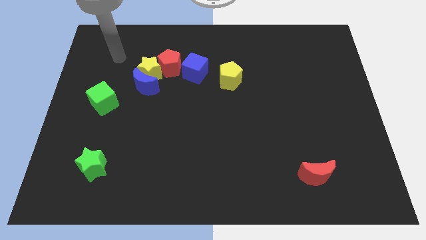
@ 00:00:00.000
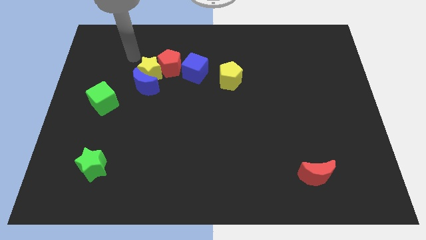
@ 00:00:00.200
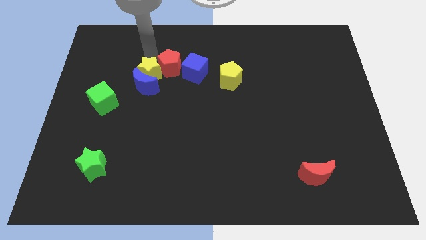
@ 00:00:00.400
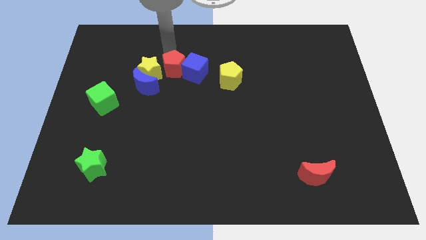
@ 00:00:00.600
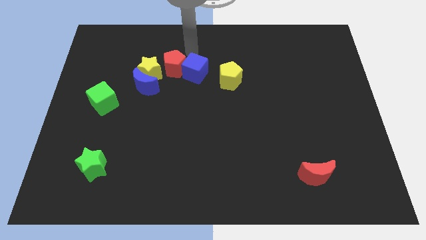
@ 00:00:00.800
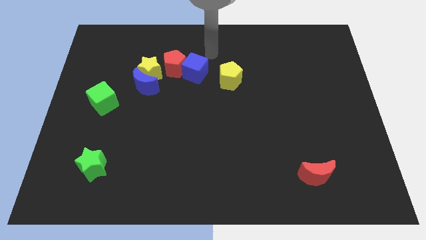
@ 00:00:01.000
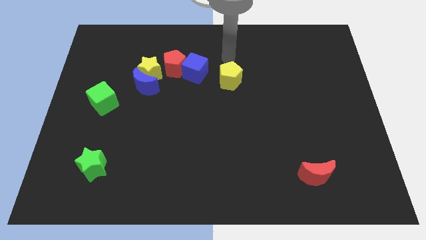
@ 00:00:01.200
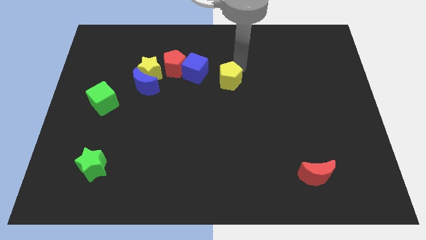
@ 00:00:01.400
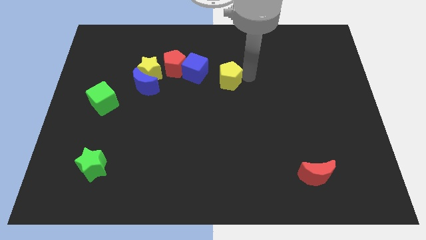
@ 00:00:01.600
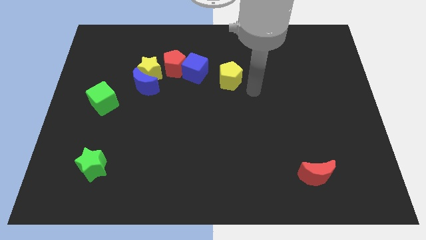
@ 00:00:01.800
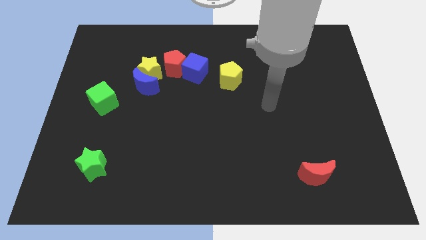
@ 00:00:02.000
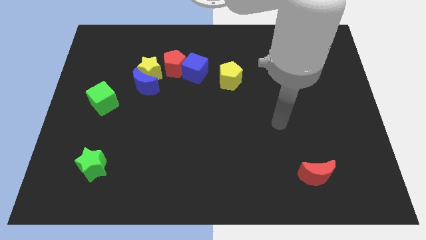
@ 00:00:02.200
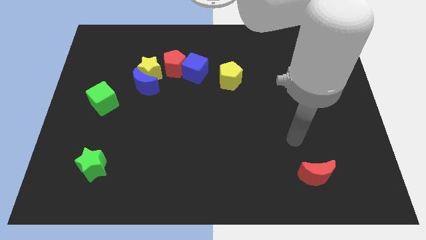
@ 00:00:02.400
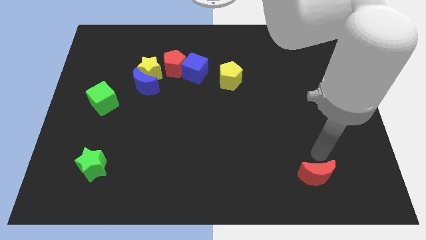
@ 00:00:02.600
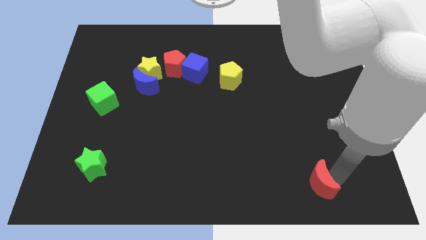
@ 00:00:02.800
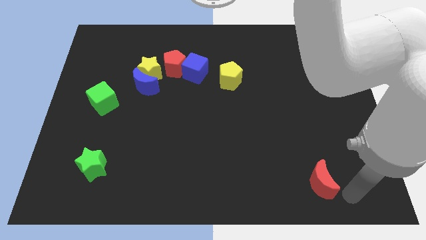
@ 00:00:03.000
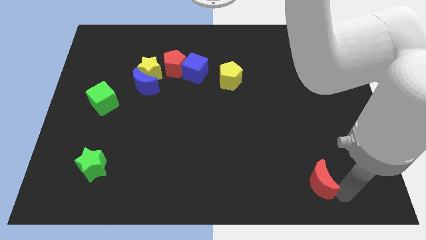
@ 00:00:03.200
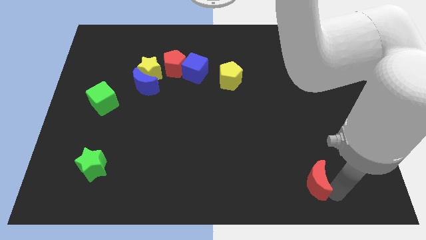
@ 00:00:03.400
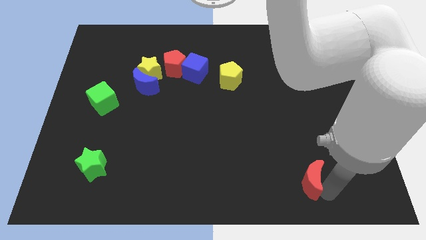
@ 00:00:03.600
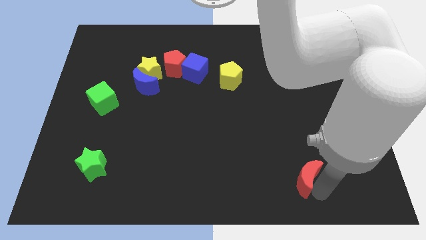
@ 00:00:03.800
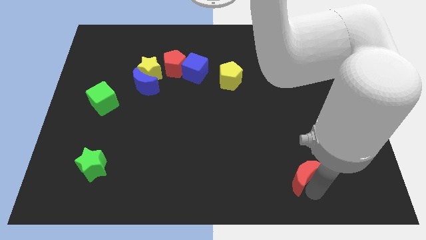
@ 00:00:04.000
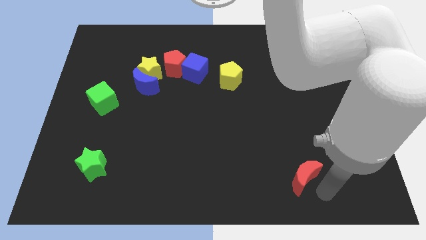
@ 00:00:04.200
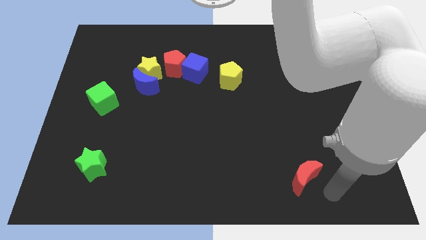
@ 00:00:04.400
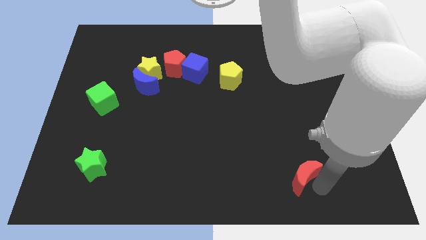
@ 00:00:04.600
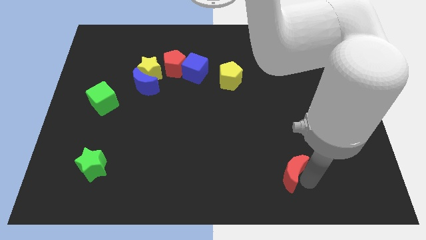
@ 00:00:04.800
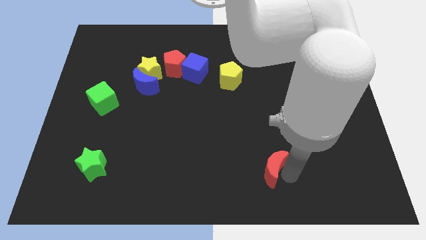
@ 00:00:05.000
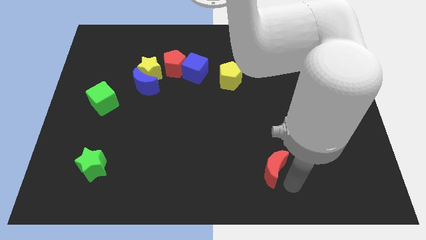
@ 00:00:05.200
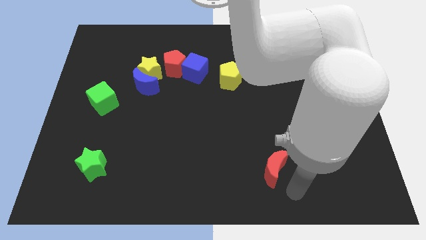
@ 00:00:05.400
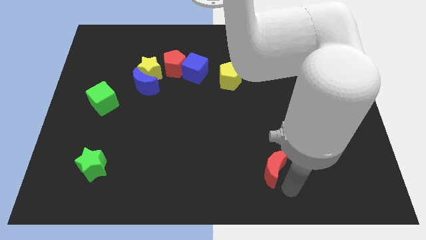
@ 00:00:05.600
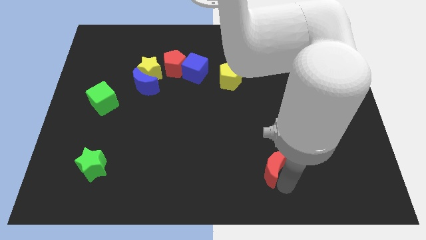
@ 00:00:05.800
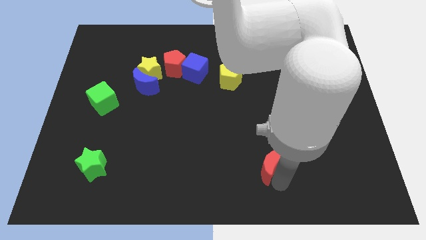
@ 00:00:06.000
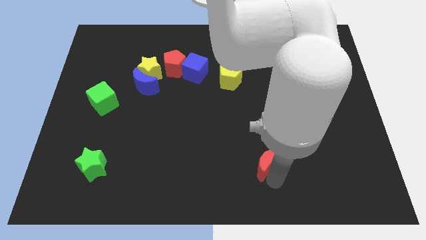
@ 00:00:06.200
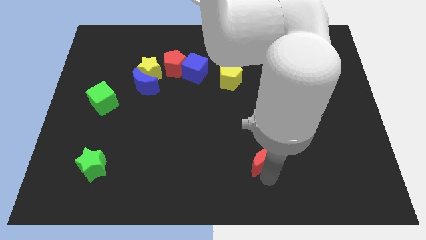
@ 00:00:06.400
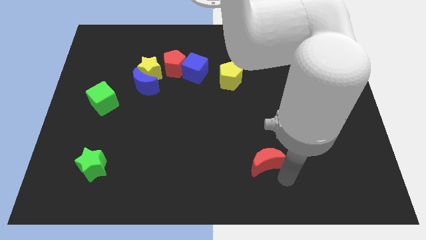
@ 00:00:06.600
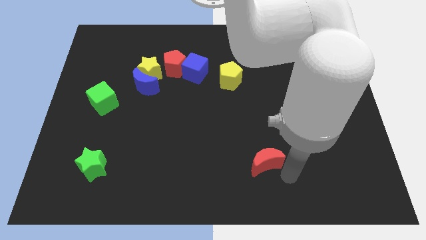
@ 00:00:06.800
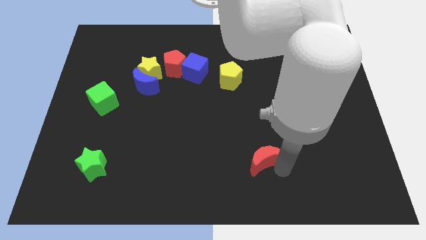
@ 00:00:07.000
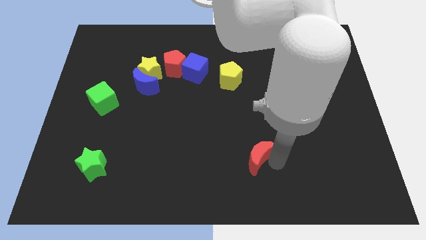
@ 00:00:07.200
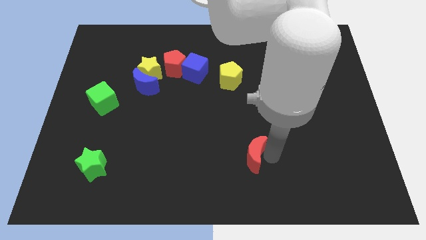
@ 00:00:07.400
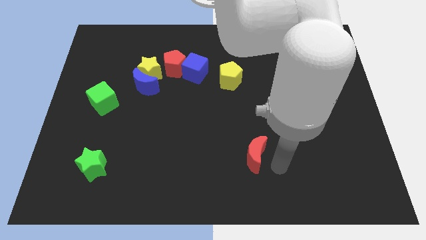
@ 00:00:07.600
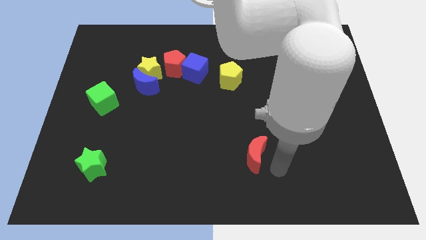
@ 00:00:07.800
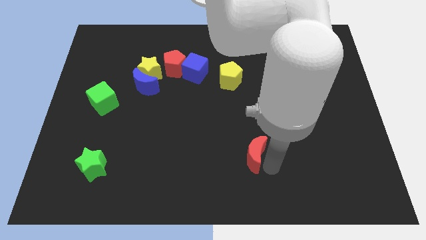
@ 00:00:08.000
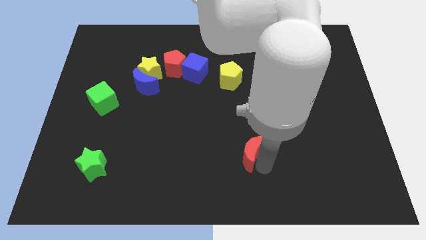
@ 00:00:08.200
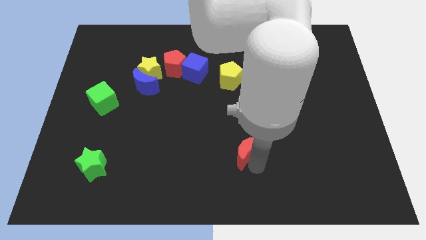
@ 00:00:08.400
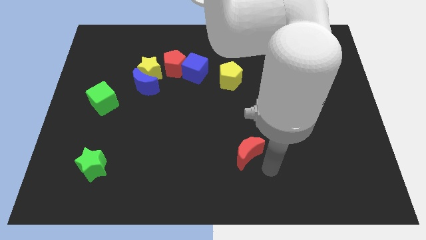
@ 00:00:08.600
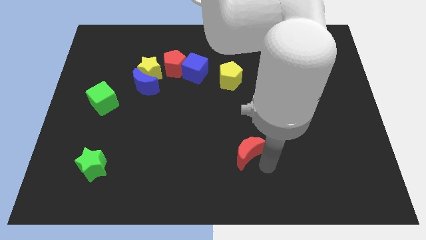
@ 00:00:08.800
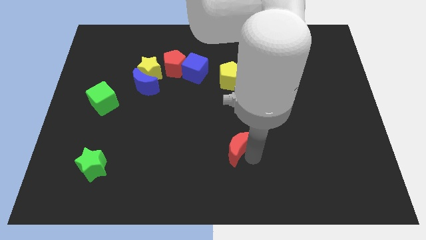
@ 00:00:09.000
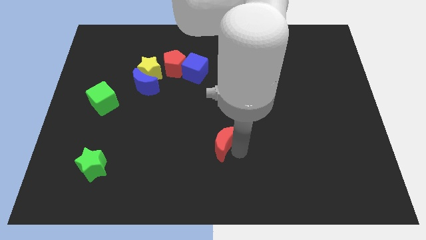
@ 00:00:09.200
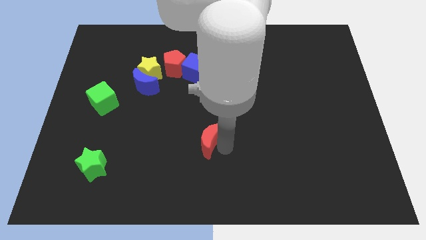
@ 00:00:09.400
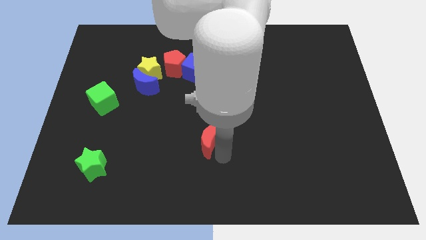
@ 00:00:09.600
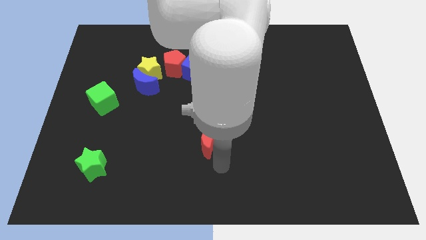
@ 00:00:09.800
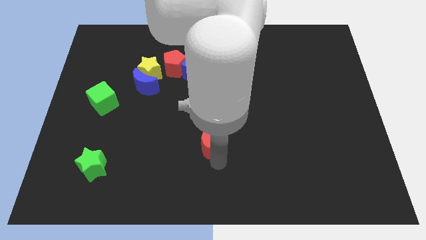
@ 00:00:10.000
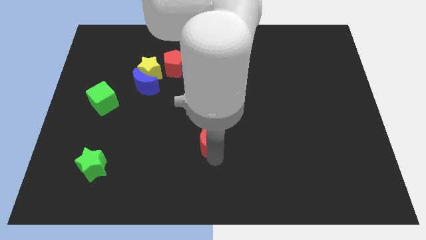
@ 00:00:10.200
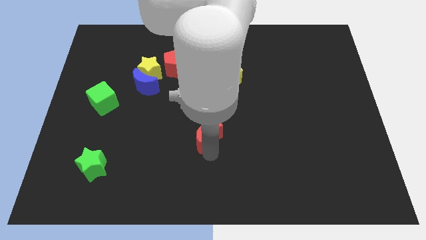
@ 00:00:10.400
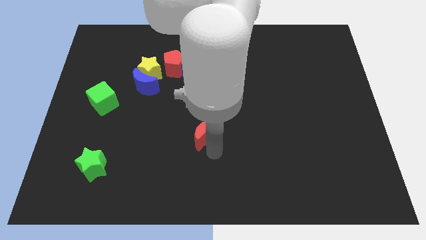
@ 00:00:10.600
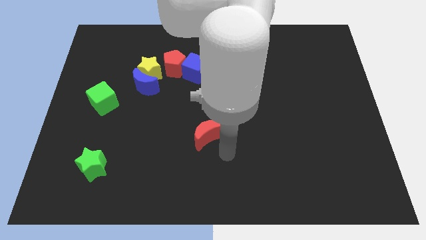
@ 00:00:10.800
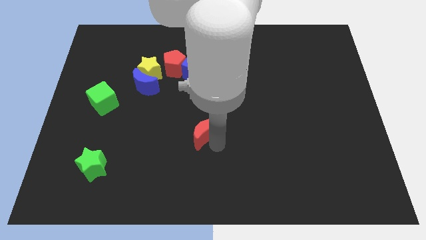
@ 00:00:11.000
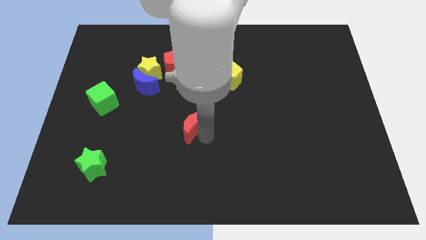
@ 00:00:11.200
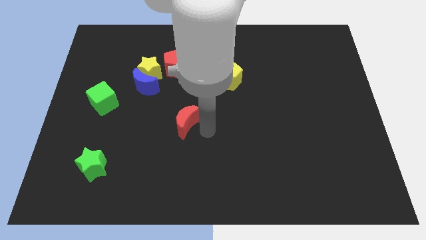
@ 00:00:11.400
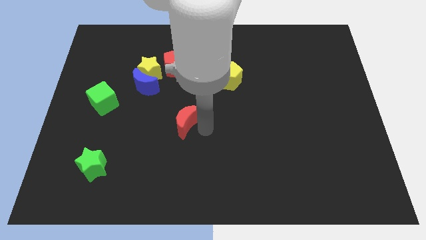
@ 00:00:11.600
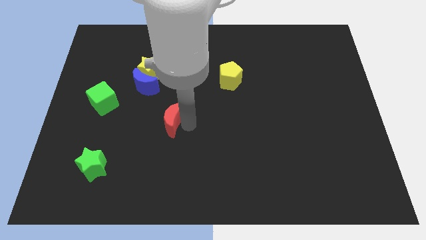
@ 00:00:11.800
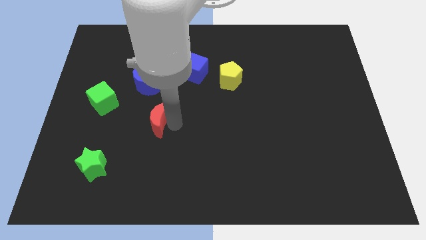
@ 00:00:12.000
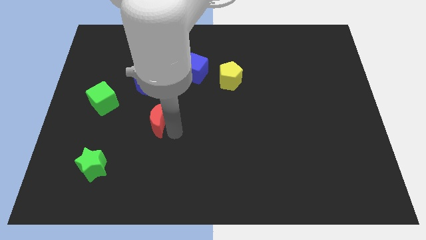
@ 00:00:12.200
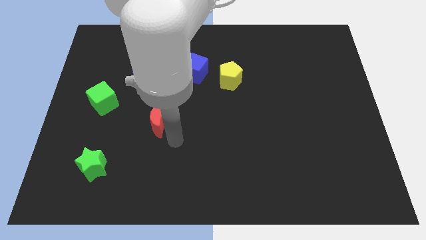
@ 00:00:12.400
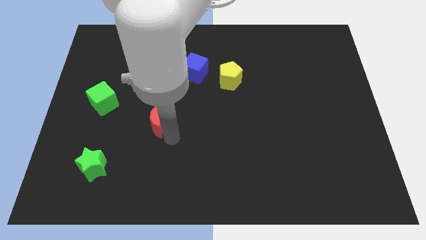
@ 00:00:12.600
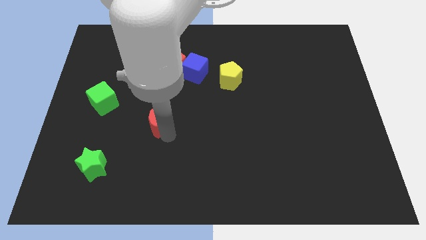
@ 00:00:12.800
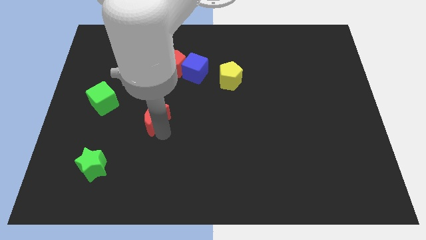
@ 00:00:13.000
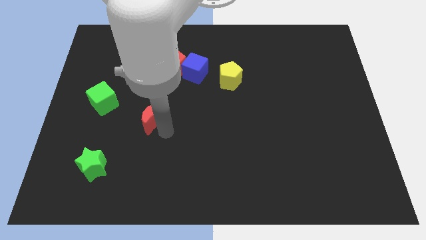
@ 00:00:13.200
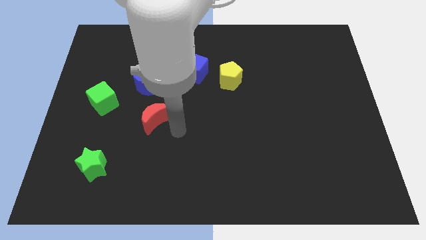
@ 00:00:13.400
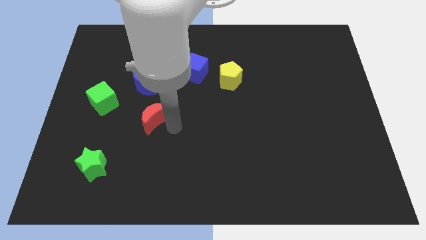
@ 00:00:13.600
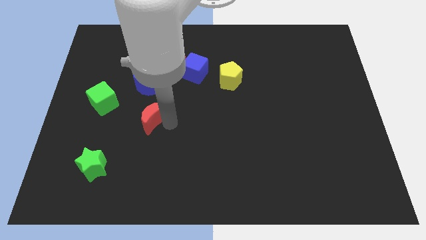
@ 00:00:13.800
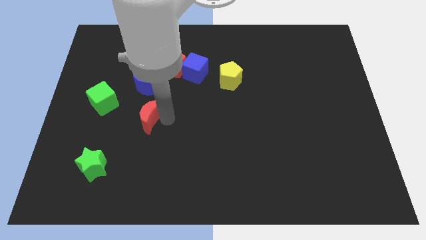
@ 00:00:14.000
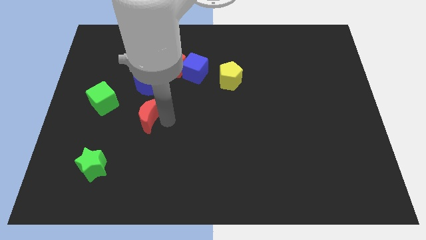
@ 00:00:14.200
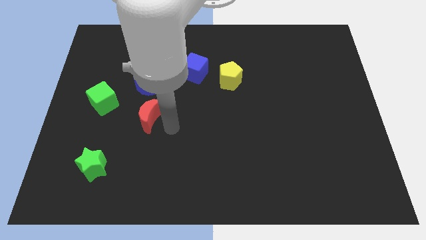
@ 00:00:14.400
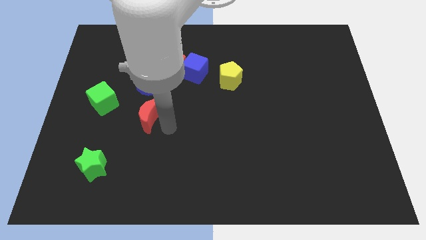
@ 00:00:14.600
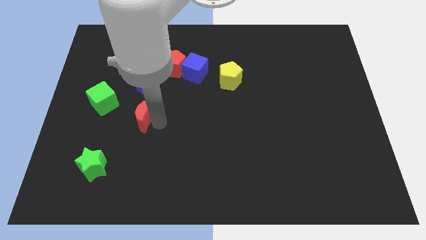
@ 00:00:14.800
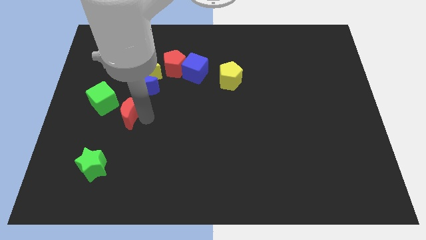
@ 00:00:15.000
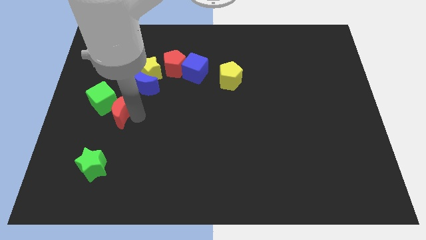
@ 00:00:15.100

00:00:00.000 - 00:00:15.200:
push the red moon close to the green cube
